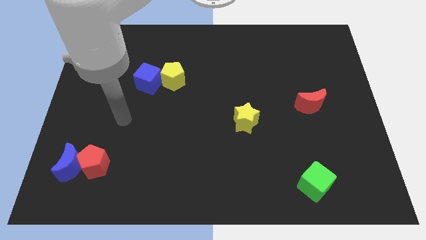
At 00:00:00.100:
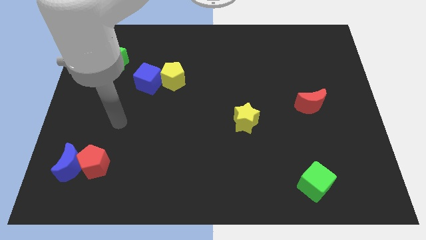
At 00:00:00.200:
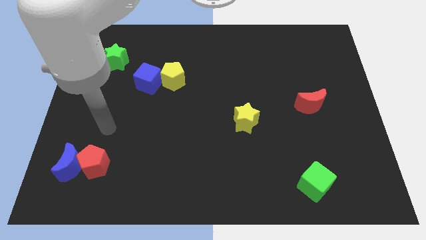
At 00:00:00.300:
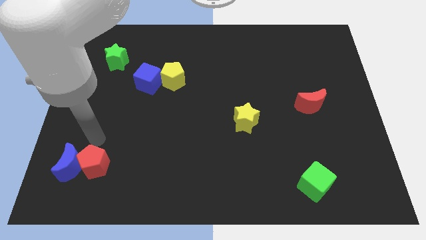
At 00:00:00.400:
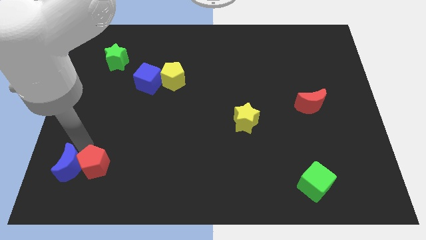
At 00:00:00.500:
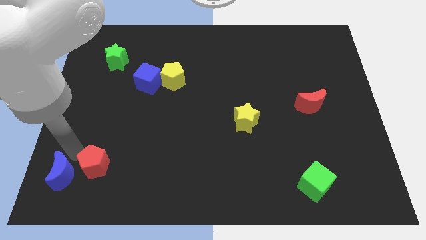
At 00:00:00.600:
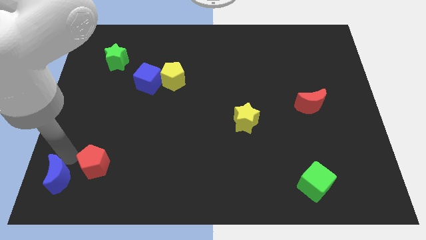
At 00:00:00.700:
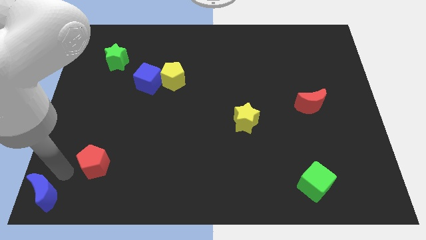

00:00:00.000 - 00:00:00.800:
move the red pentagon away from the blue moon

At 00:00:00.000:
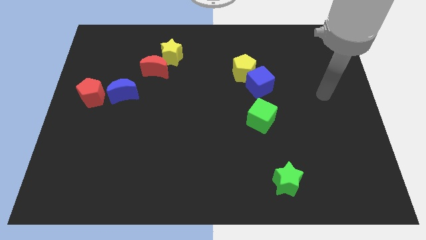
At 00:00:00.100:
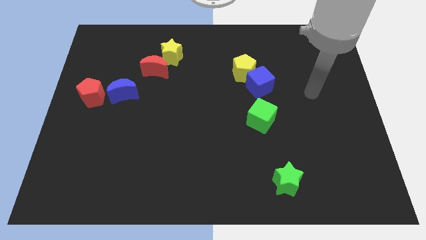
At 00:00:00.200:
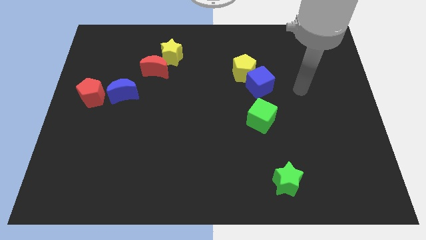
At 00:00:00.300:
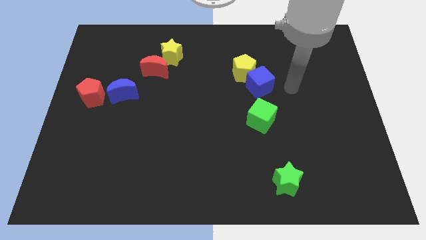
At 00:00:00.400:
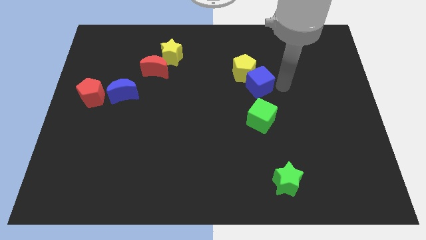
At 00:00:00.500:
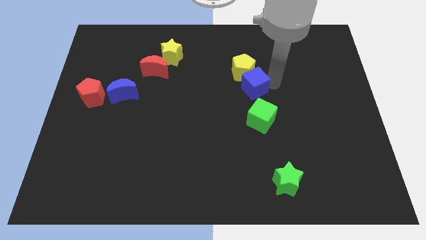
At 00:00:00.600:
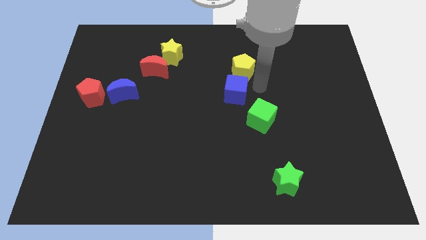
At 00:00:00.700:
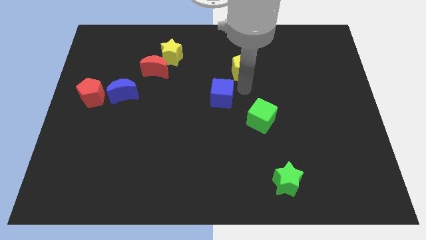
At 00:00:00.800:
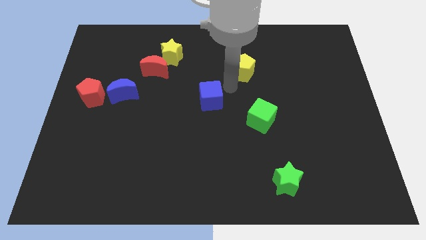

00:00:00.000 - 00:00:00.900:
pull the yellow pentagon apart from the blue cube

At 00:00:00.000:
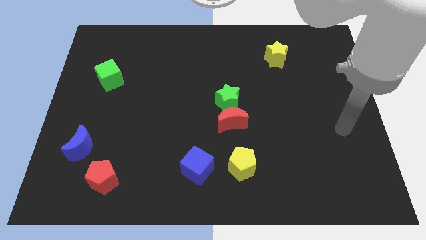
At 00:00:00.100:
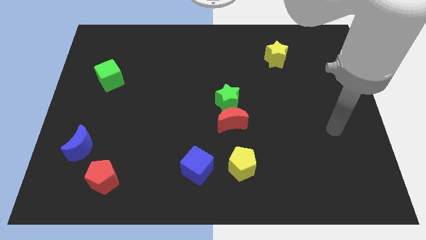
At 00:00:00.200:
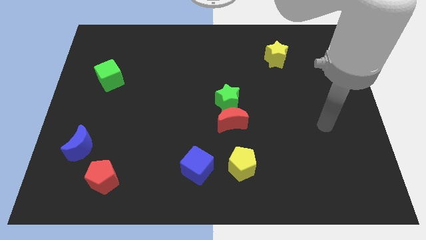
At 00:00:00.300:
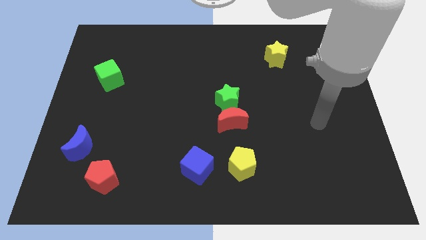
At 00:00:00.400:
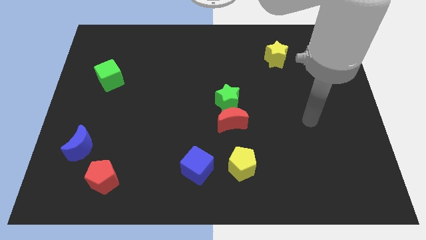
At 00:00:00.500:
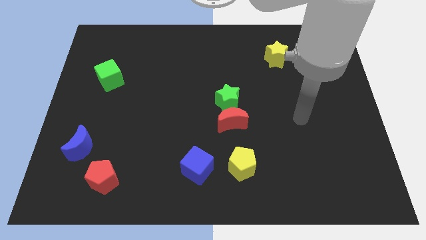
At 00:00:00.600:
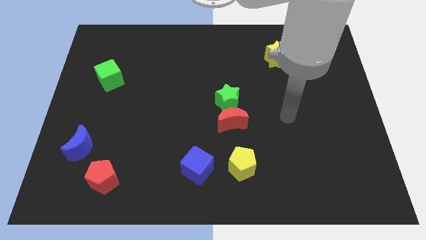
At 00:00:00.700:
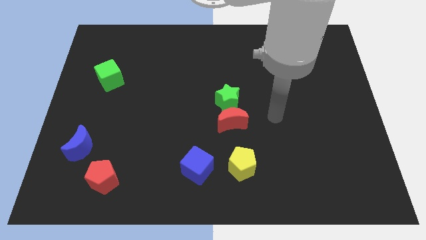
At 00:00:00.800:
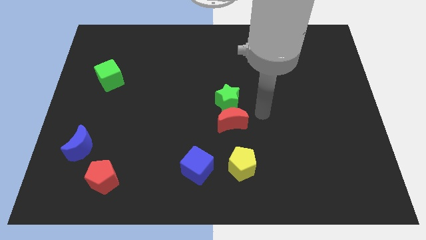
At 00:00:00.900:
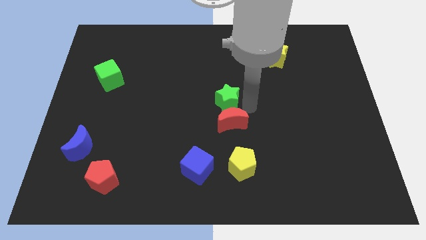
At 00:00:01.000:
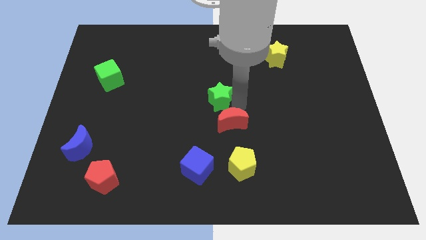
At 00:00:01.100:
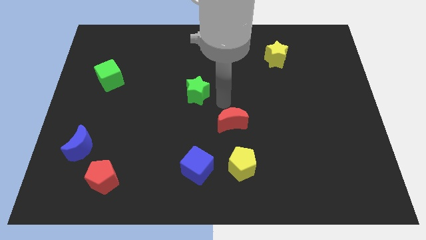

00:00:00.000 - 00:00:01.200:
pull the red moon apart from the green star

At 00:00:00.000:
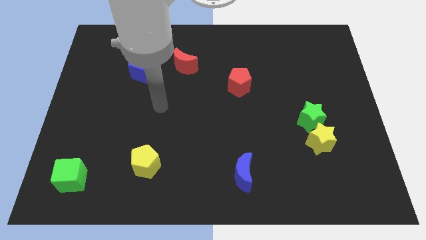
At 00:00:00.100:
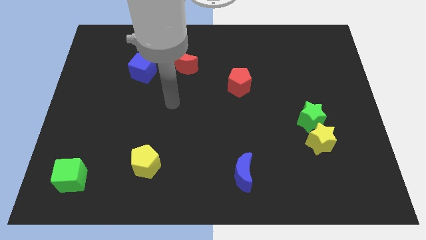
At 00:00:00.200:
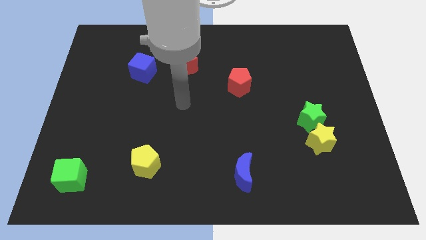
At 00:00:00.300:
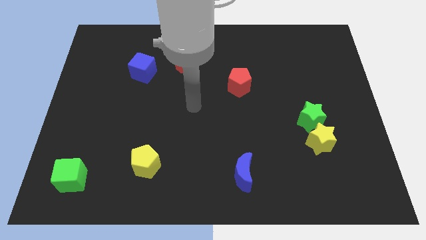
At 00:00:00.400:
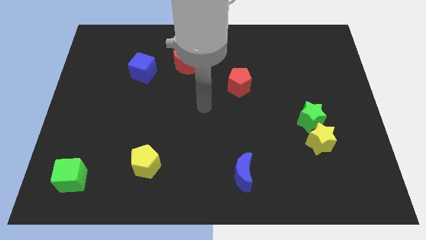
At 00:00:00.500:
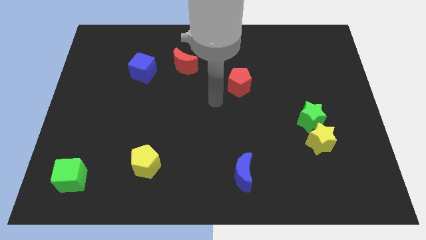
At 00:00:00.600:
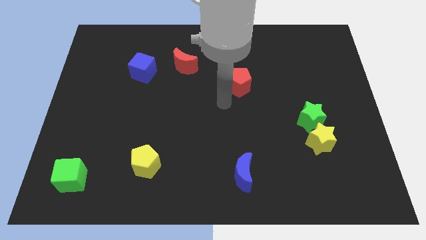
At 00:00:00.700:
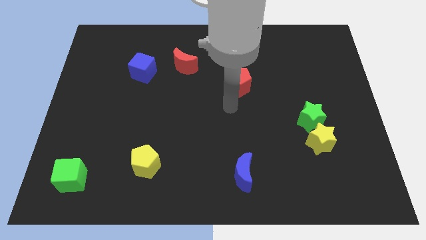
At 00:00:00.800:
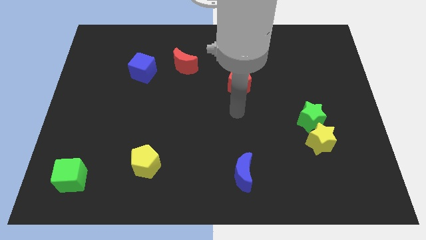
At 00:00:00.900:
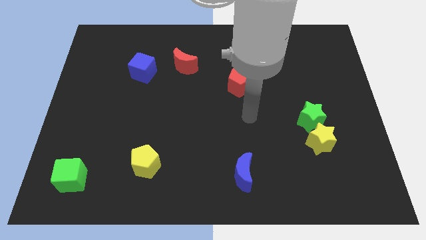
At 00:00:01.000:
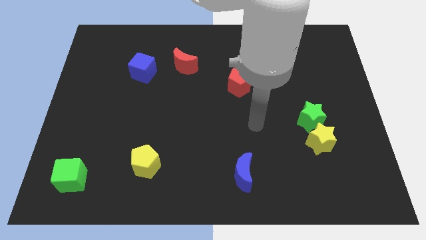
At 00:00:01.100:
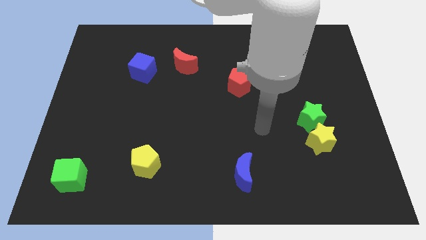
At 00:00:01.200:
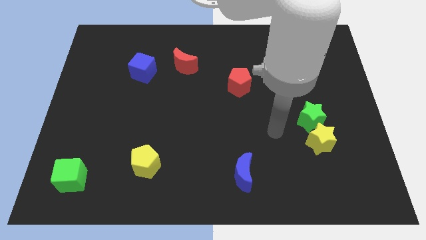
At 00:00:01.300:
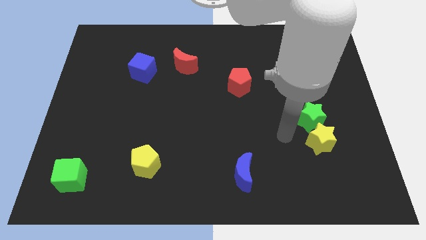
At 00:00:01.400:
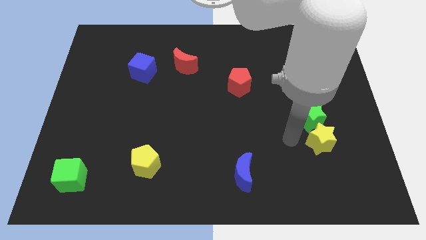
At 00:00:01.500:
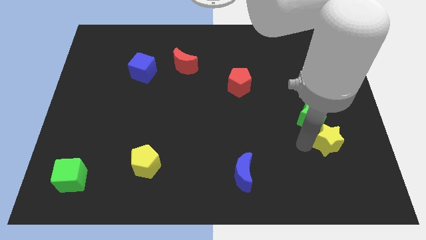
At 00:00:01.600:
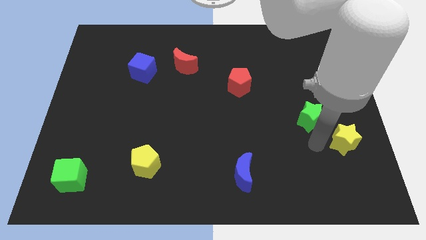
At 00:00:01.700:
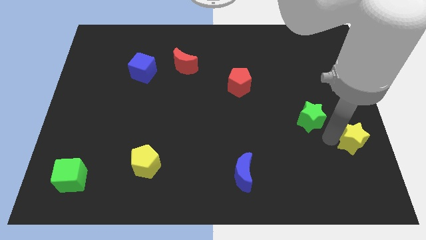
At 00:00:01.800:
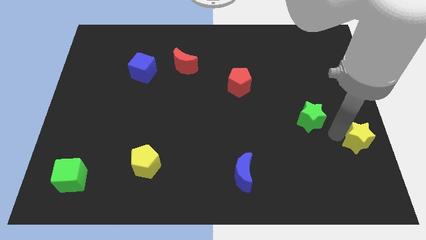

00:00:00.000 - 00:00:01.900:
pull the green star apart from the yellow star

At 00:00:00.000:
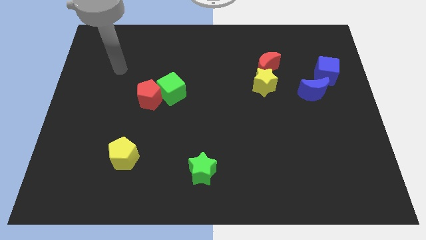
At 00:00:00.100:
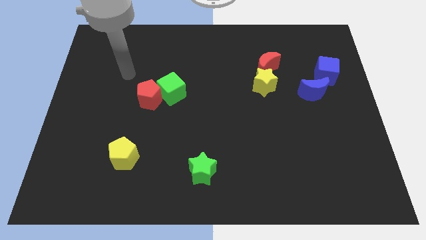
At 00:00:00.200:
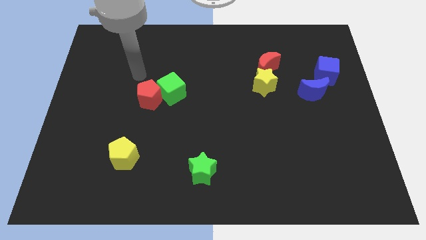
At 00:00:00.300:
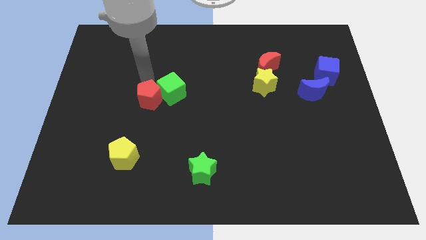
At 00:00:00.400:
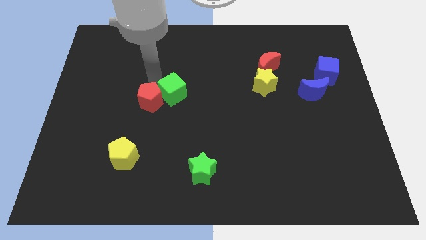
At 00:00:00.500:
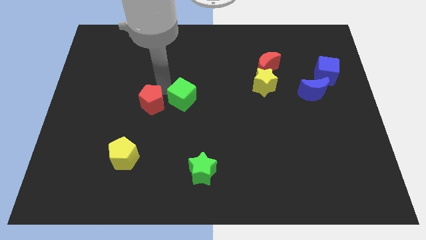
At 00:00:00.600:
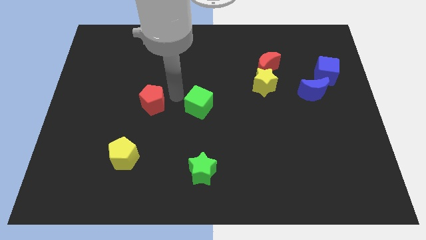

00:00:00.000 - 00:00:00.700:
pull the red pentagon apart from the green cube

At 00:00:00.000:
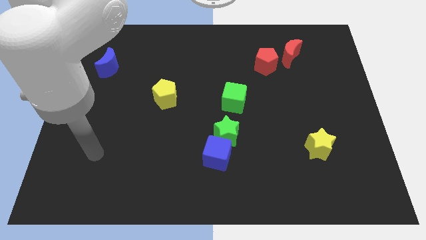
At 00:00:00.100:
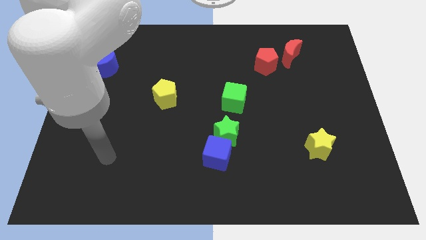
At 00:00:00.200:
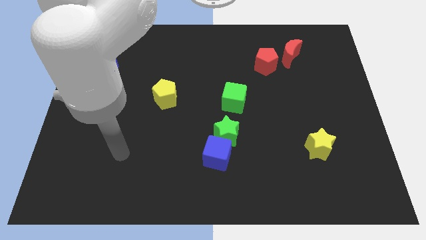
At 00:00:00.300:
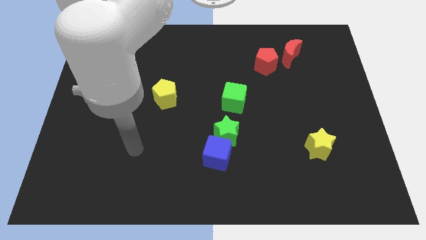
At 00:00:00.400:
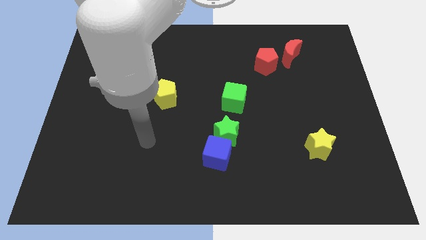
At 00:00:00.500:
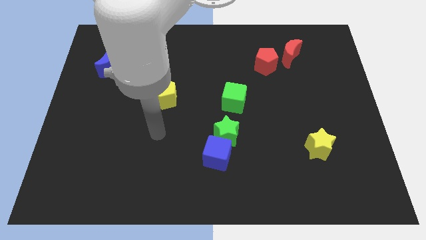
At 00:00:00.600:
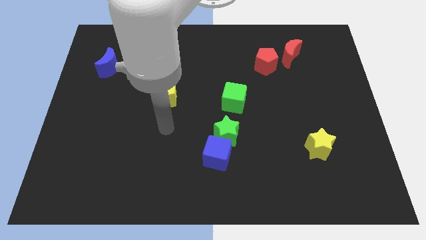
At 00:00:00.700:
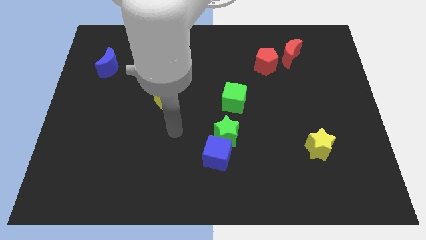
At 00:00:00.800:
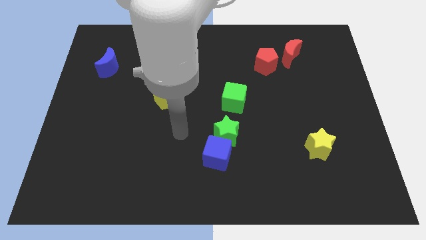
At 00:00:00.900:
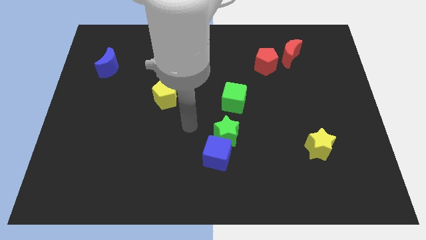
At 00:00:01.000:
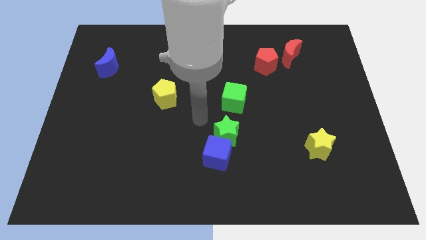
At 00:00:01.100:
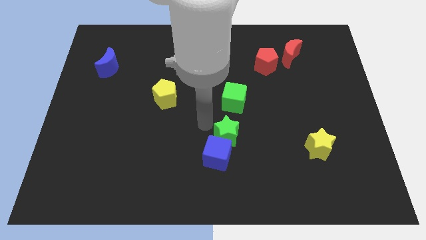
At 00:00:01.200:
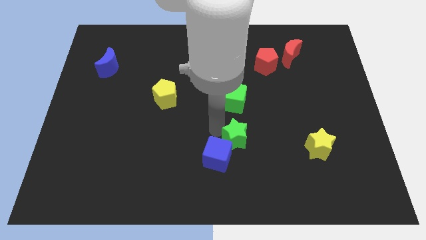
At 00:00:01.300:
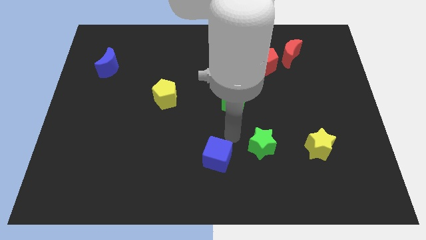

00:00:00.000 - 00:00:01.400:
separate the blue cube from the green star

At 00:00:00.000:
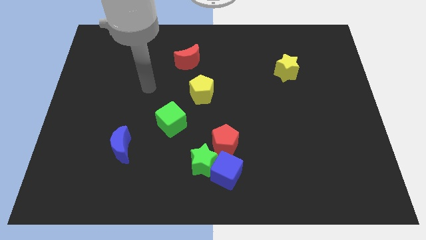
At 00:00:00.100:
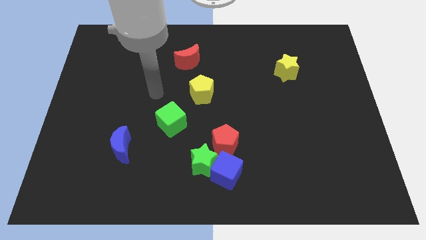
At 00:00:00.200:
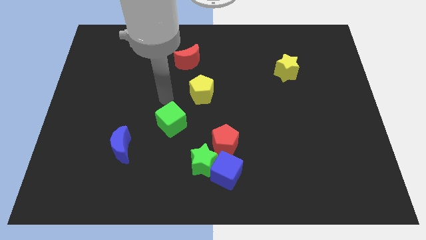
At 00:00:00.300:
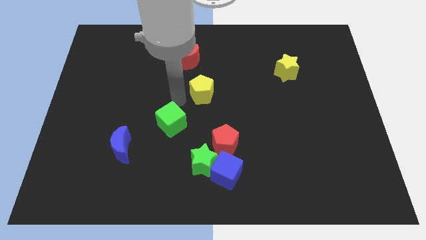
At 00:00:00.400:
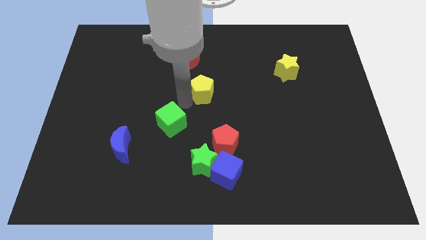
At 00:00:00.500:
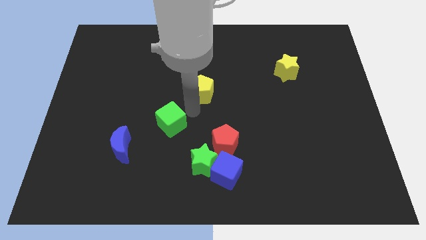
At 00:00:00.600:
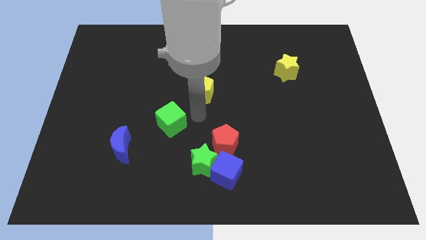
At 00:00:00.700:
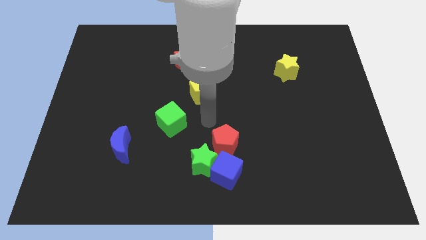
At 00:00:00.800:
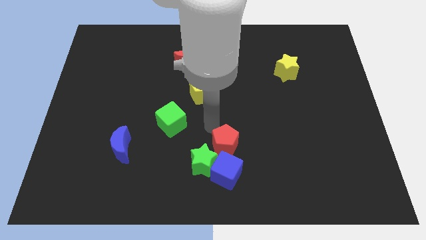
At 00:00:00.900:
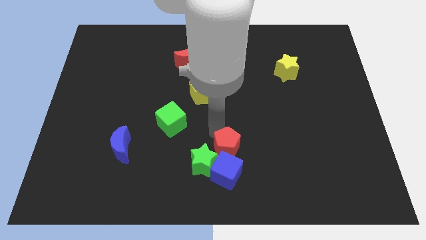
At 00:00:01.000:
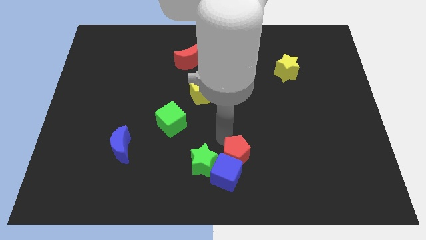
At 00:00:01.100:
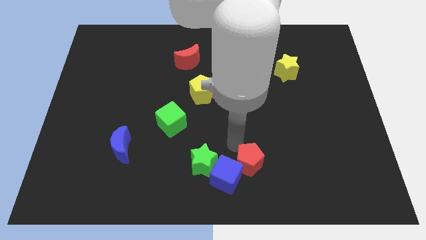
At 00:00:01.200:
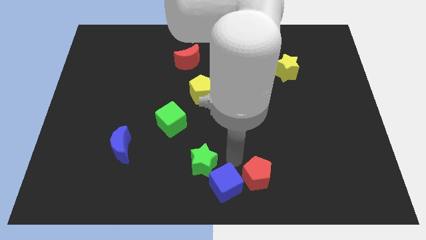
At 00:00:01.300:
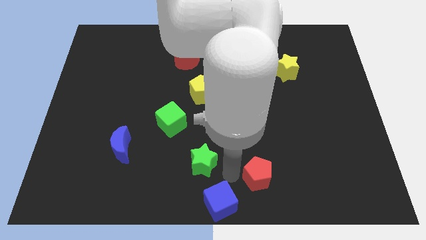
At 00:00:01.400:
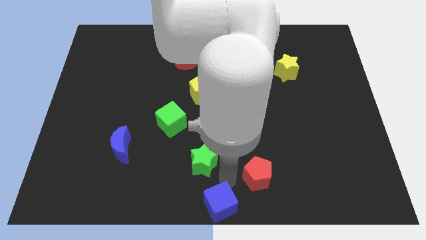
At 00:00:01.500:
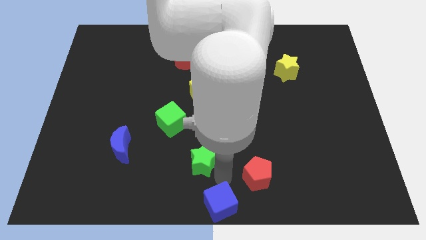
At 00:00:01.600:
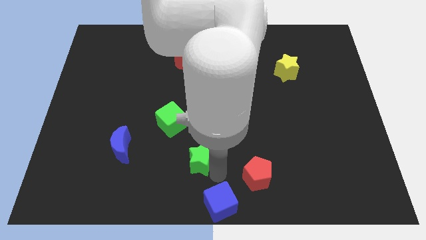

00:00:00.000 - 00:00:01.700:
separate the green star from the blue cube and red pentagon

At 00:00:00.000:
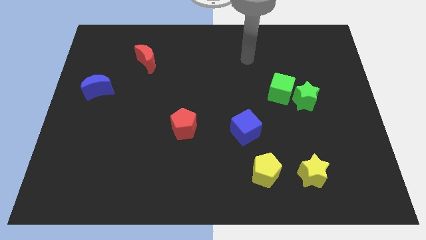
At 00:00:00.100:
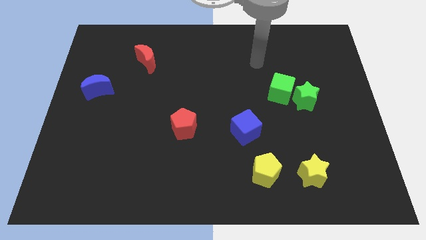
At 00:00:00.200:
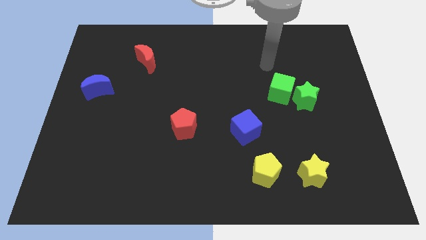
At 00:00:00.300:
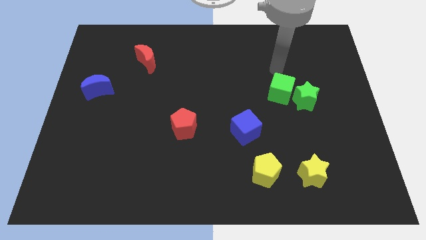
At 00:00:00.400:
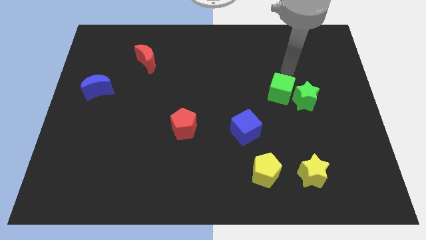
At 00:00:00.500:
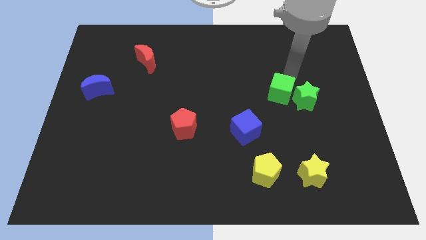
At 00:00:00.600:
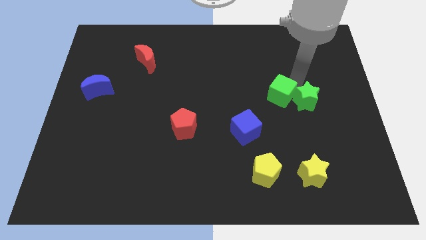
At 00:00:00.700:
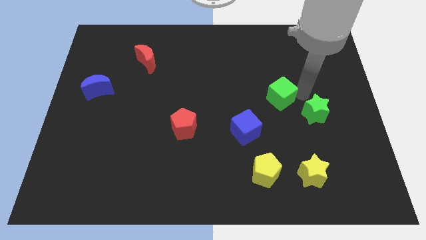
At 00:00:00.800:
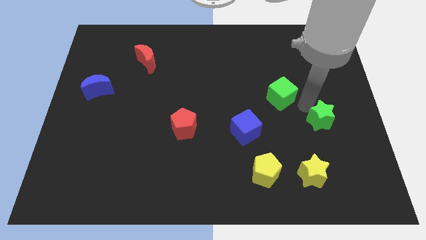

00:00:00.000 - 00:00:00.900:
separate the green cube from the green star
